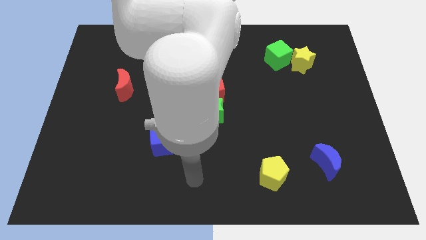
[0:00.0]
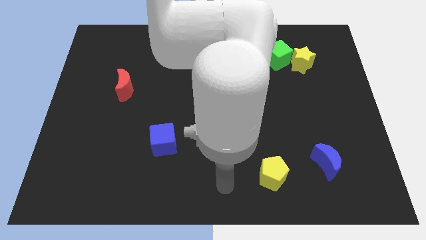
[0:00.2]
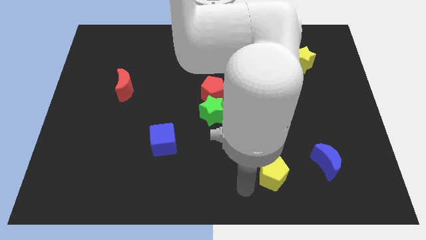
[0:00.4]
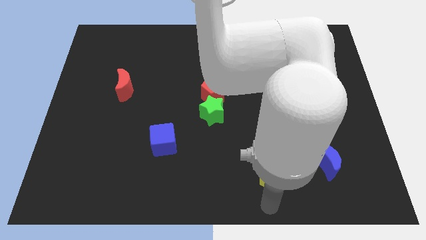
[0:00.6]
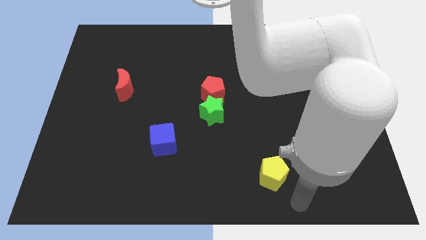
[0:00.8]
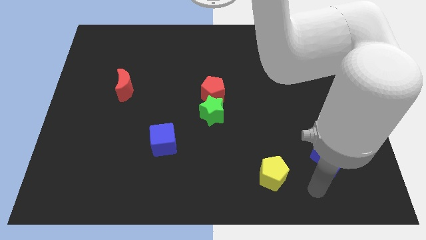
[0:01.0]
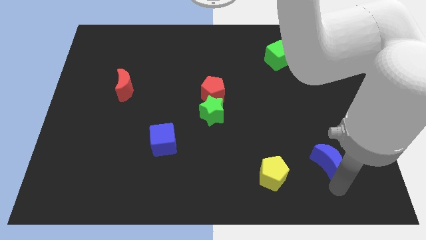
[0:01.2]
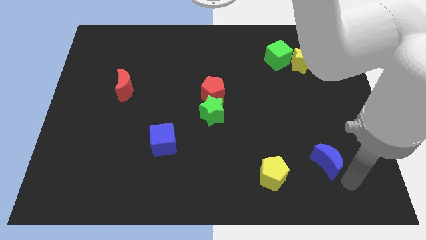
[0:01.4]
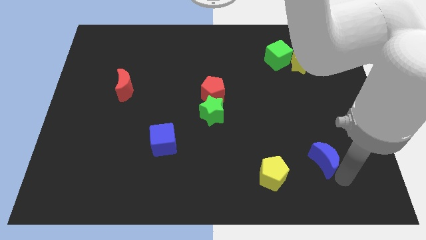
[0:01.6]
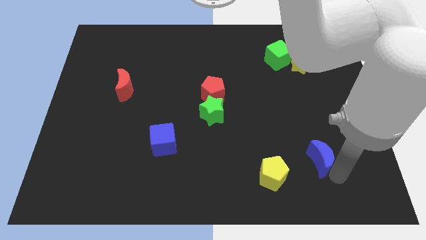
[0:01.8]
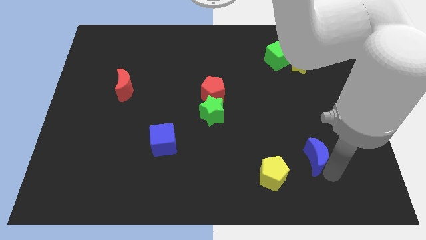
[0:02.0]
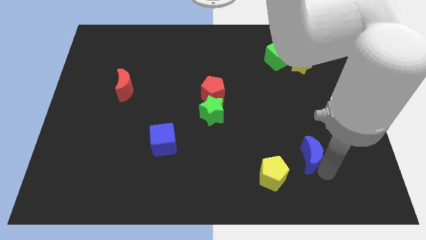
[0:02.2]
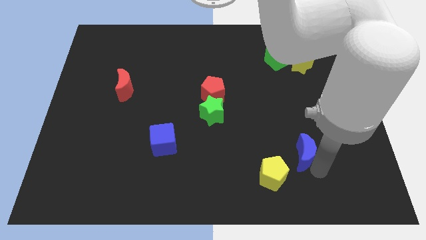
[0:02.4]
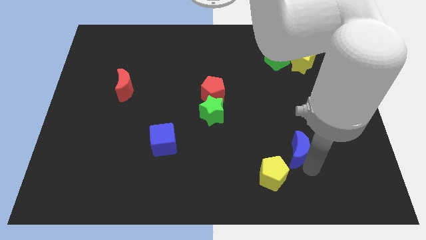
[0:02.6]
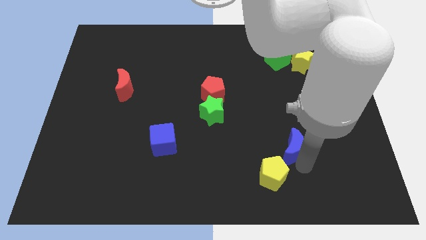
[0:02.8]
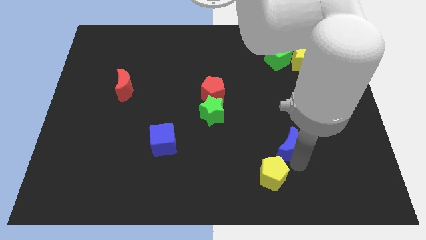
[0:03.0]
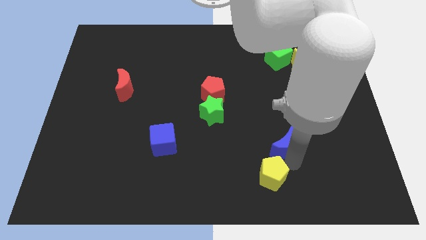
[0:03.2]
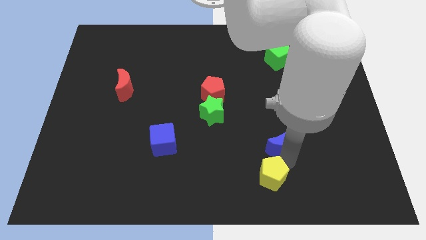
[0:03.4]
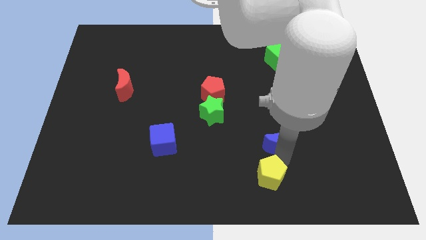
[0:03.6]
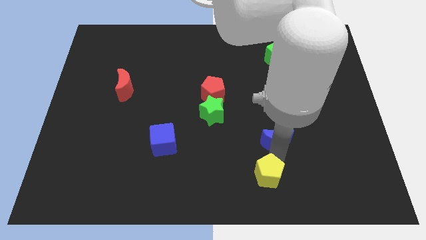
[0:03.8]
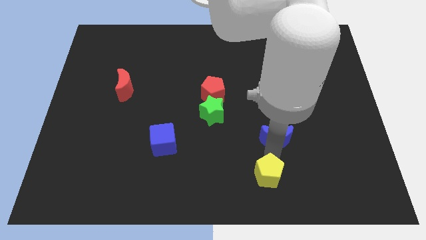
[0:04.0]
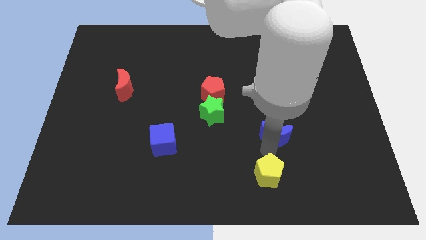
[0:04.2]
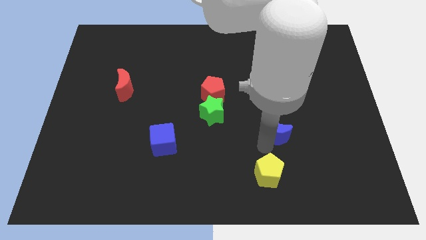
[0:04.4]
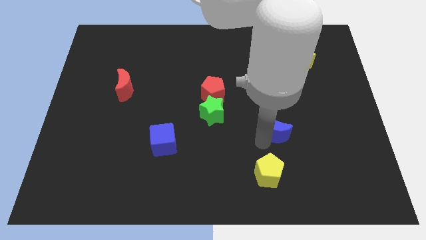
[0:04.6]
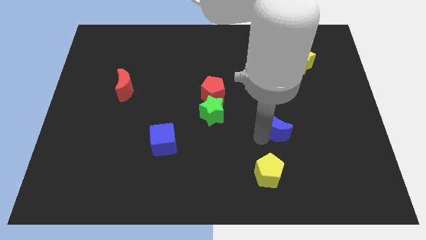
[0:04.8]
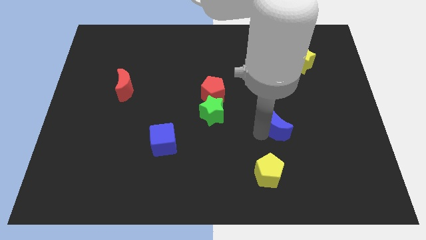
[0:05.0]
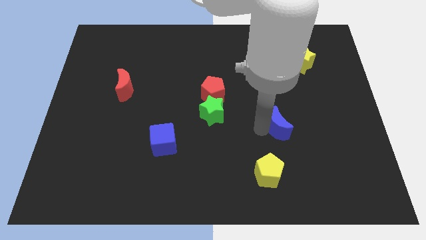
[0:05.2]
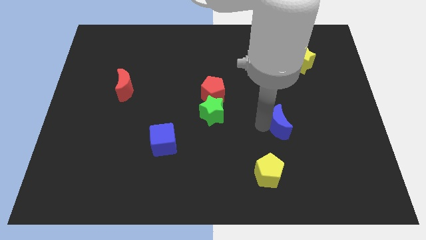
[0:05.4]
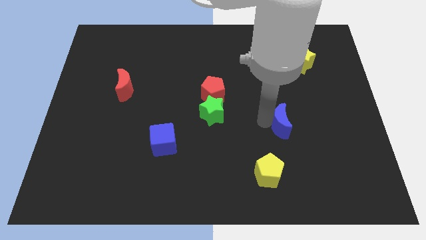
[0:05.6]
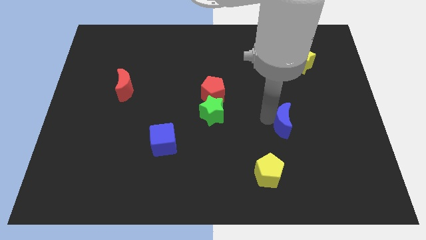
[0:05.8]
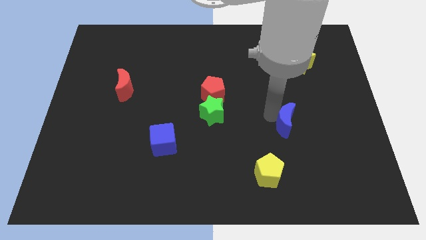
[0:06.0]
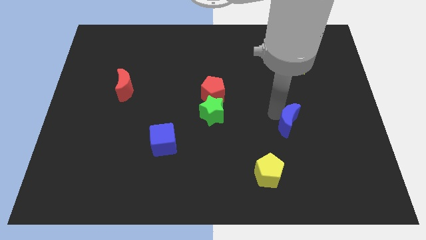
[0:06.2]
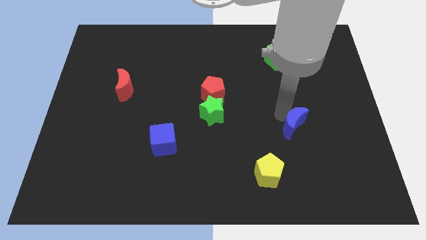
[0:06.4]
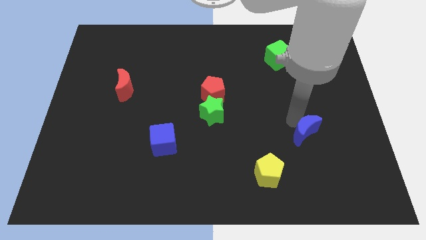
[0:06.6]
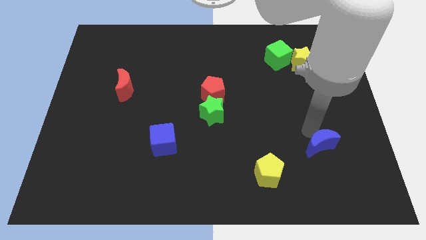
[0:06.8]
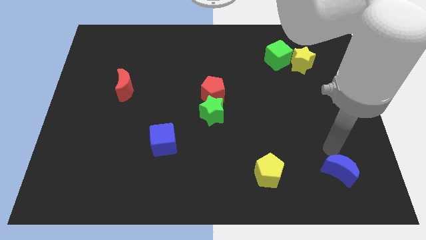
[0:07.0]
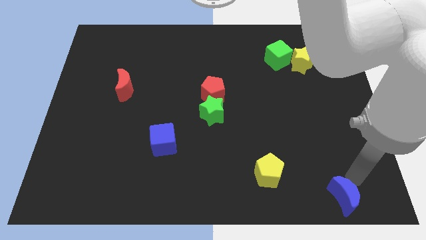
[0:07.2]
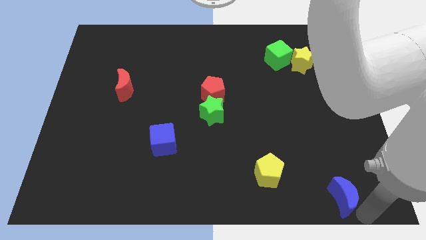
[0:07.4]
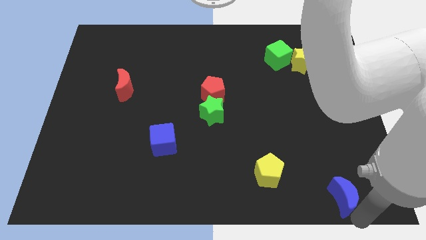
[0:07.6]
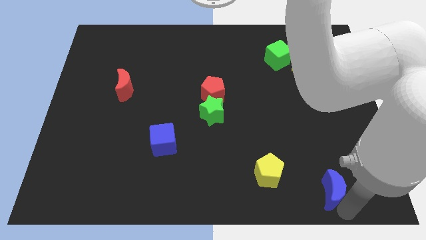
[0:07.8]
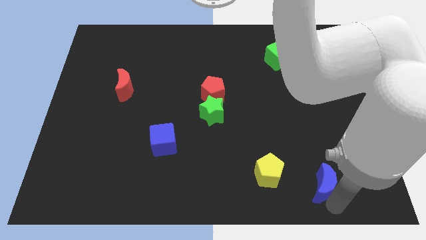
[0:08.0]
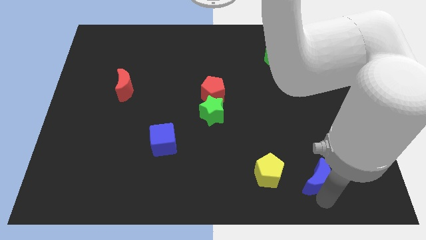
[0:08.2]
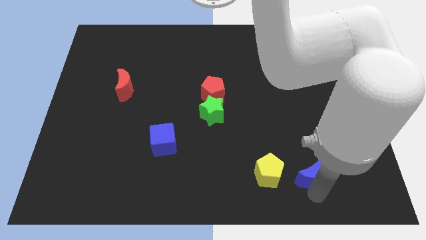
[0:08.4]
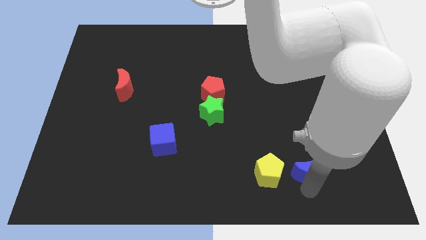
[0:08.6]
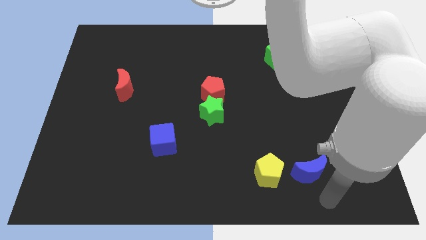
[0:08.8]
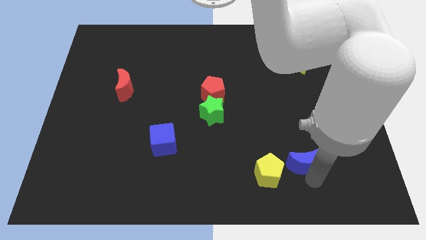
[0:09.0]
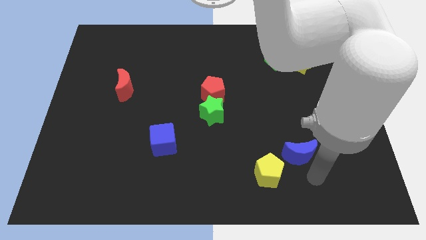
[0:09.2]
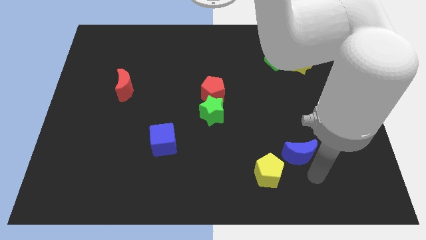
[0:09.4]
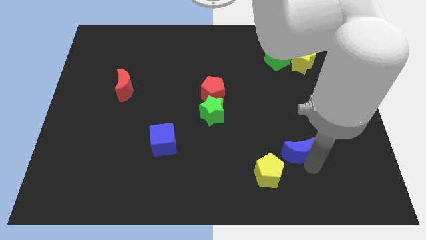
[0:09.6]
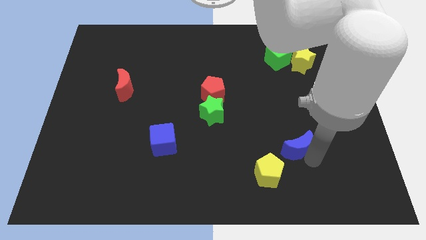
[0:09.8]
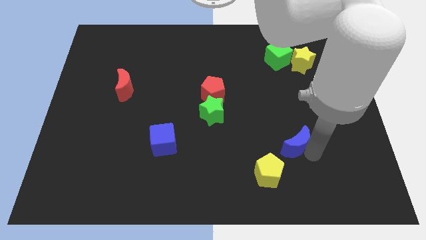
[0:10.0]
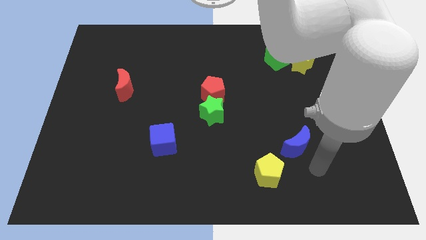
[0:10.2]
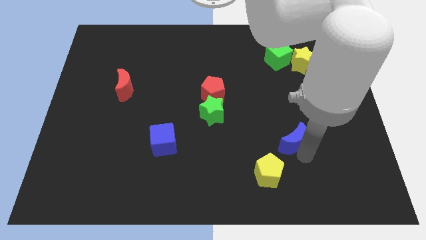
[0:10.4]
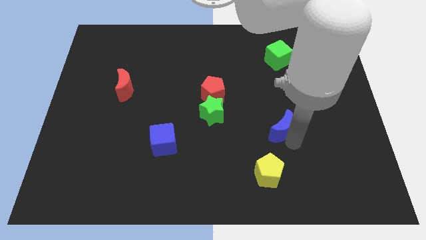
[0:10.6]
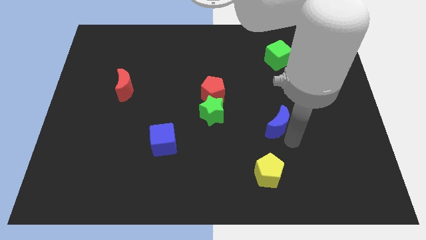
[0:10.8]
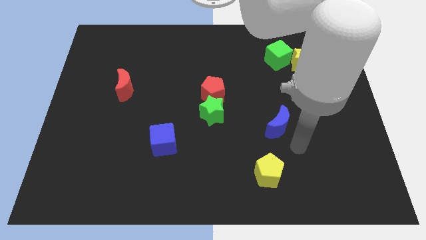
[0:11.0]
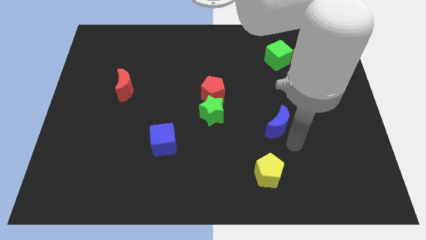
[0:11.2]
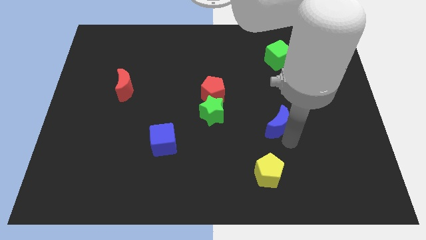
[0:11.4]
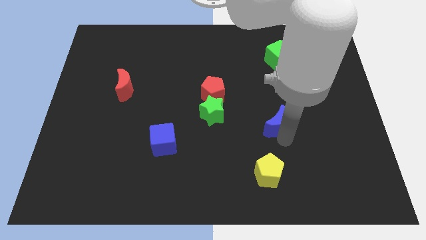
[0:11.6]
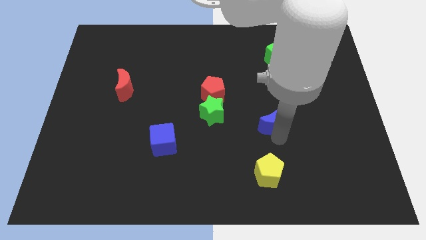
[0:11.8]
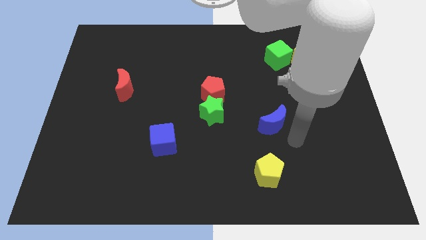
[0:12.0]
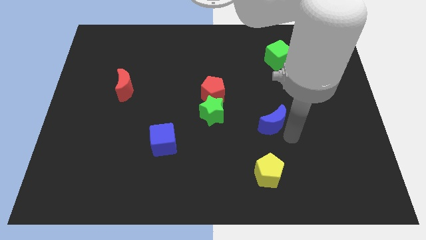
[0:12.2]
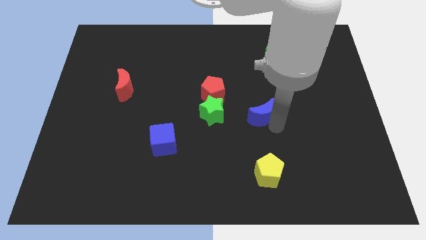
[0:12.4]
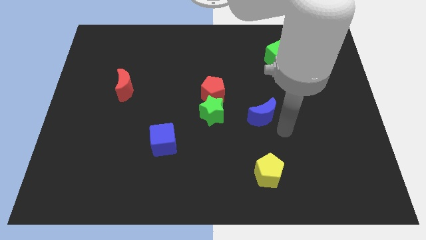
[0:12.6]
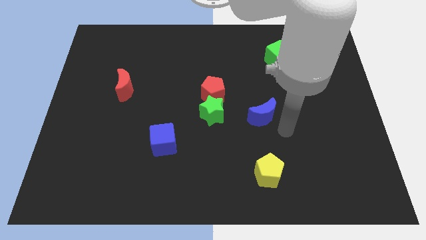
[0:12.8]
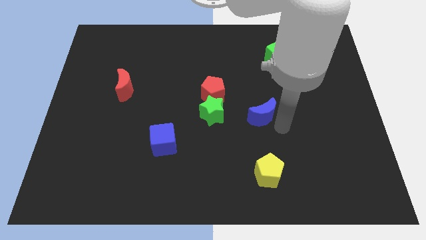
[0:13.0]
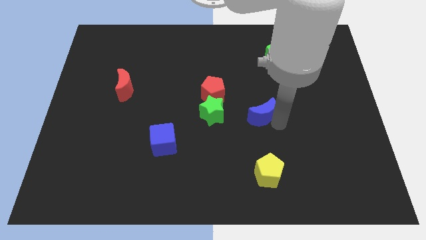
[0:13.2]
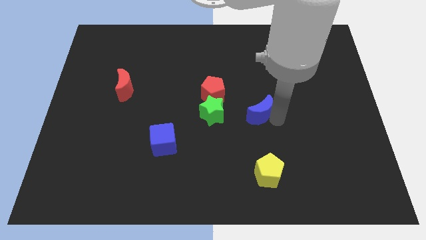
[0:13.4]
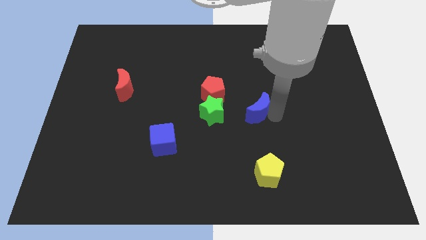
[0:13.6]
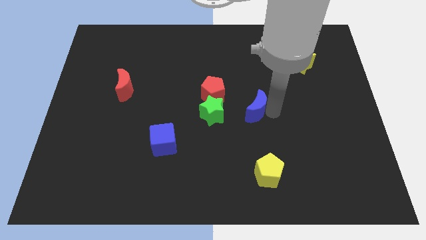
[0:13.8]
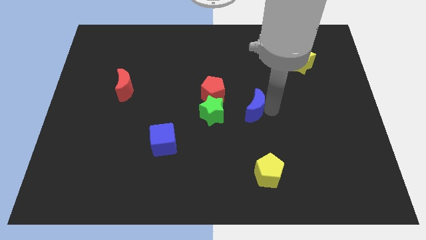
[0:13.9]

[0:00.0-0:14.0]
slide the blue moon diagonally upwards and left

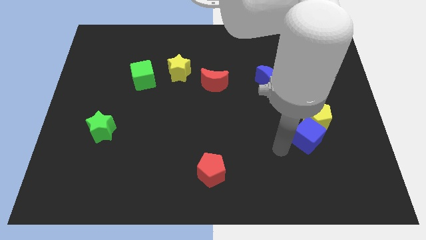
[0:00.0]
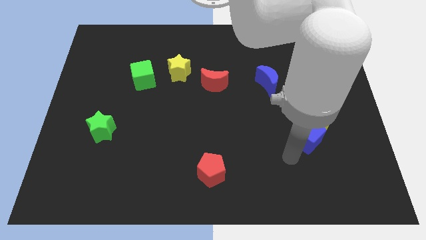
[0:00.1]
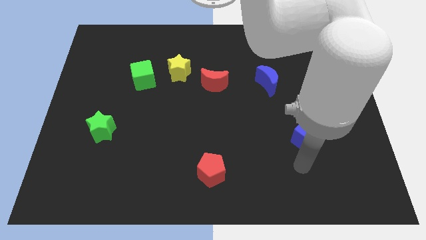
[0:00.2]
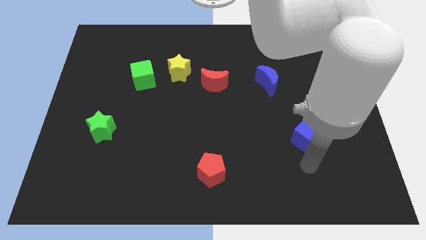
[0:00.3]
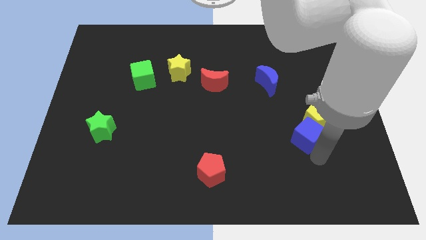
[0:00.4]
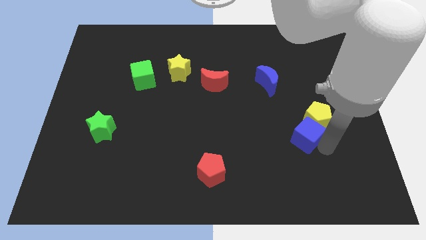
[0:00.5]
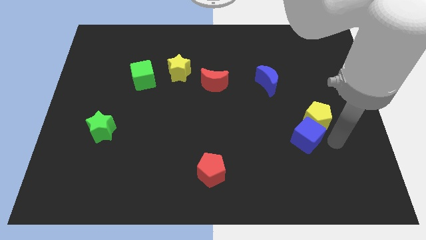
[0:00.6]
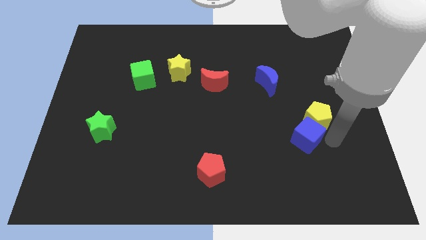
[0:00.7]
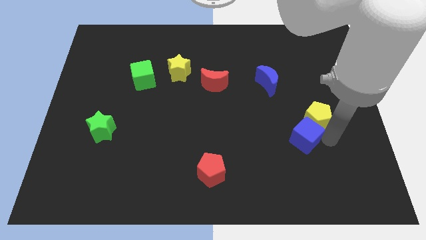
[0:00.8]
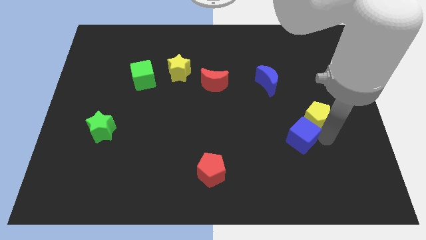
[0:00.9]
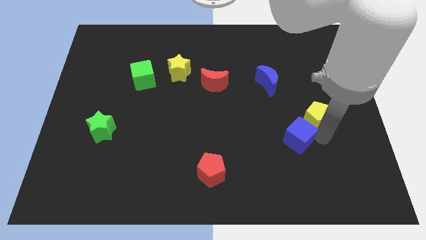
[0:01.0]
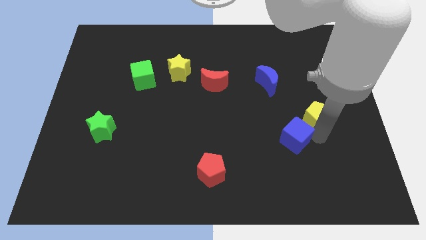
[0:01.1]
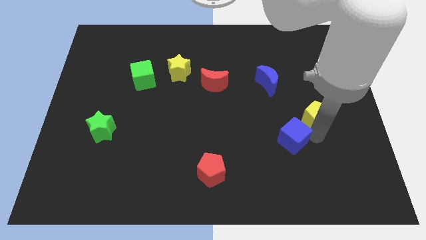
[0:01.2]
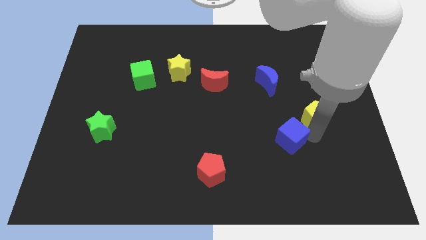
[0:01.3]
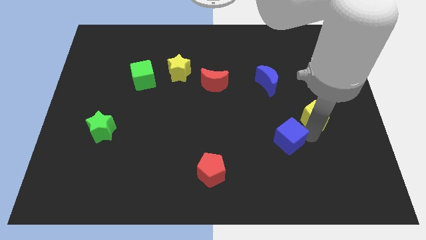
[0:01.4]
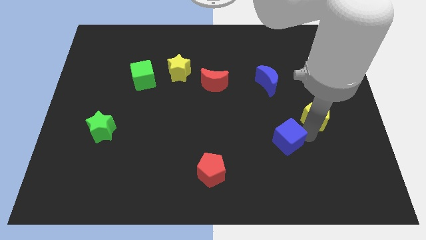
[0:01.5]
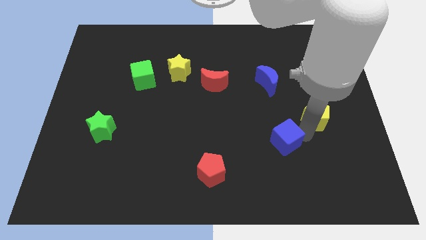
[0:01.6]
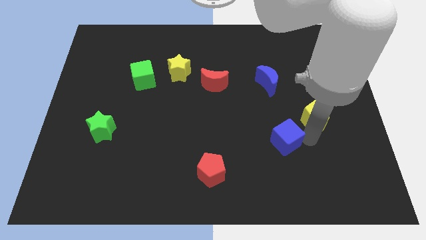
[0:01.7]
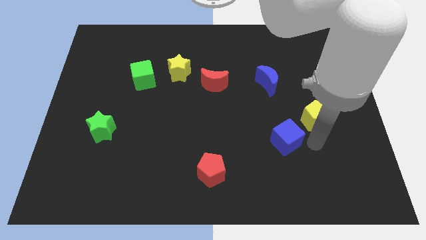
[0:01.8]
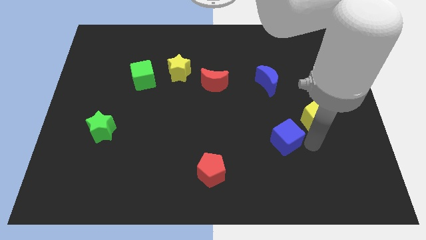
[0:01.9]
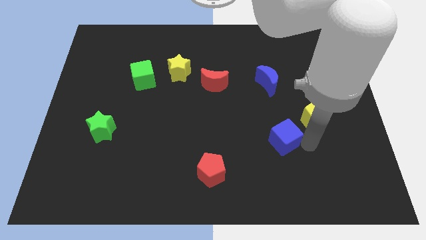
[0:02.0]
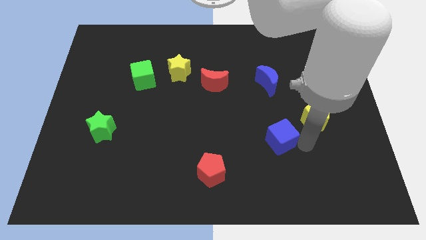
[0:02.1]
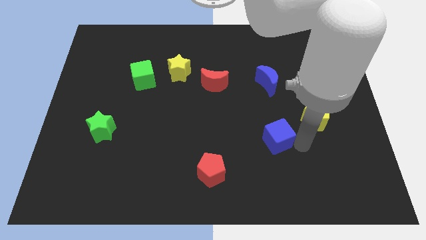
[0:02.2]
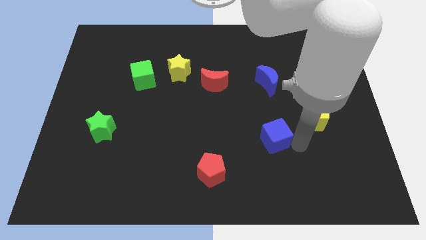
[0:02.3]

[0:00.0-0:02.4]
slide the blue cube left a little bit
